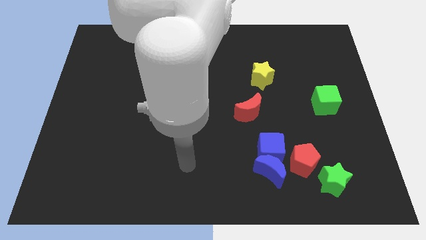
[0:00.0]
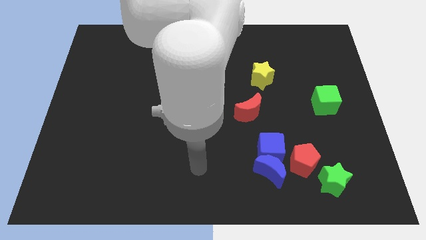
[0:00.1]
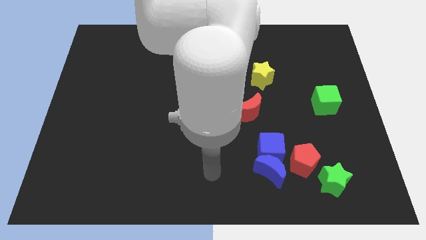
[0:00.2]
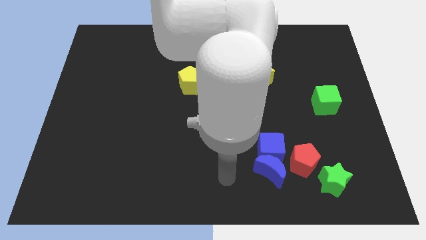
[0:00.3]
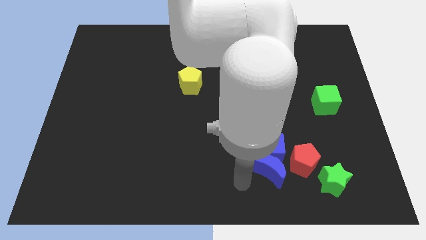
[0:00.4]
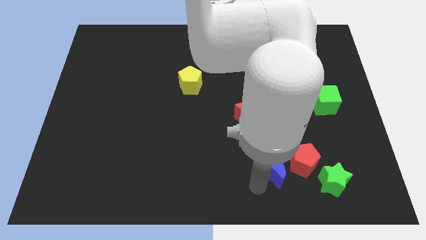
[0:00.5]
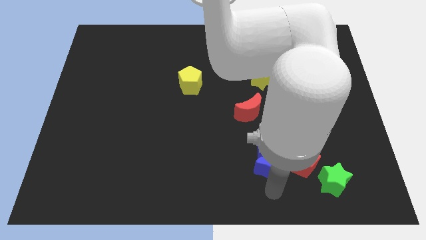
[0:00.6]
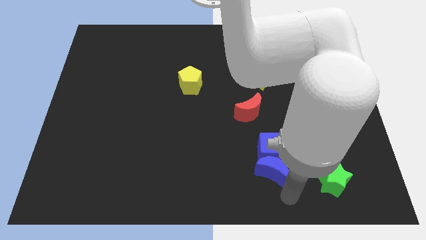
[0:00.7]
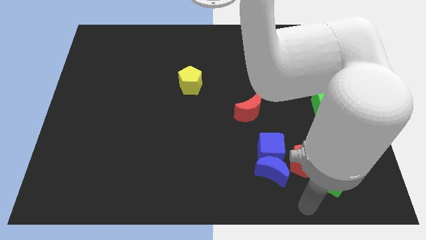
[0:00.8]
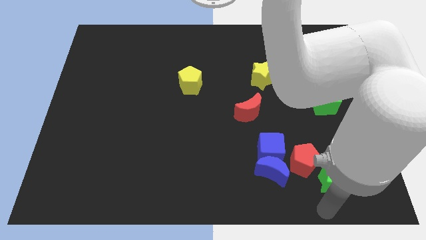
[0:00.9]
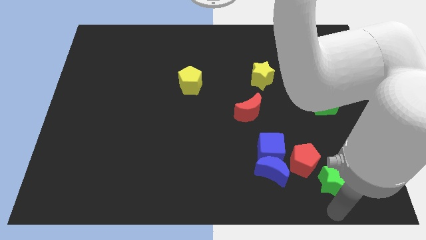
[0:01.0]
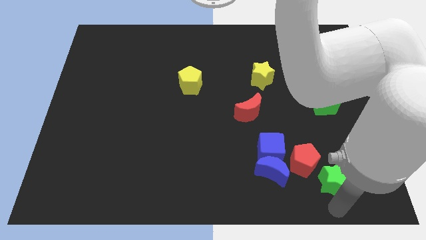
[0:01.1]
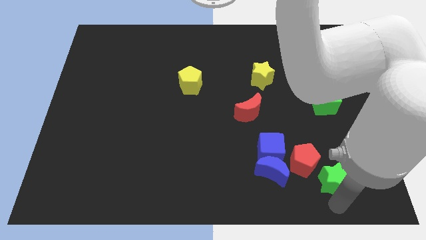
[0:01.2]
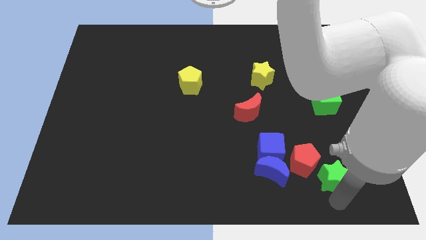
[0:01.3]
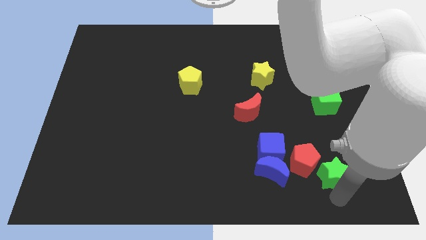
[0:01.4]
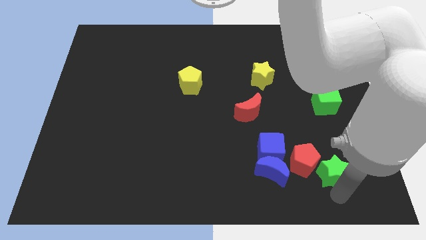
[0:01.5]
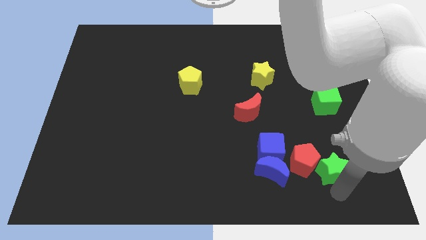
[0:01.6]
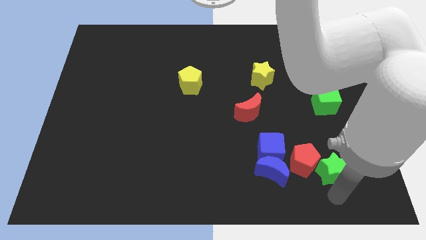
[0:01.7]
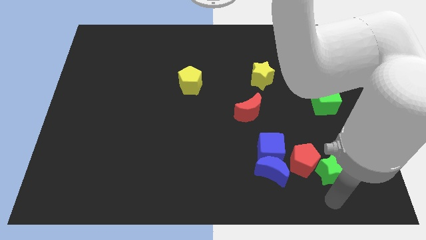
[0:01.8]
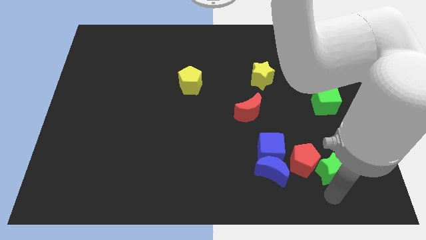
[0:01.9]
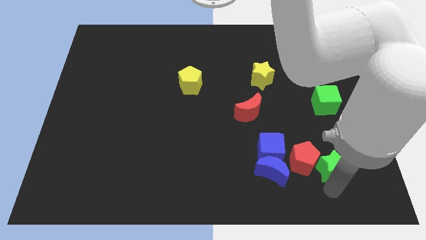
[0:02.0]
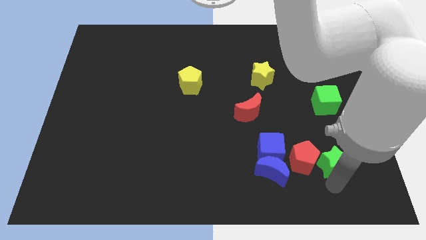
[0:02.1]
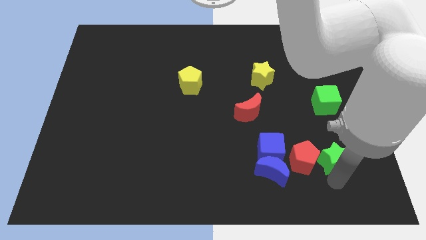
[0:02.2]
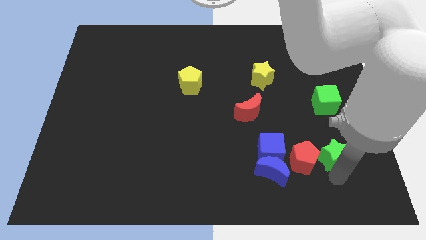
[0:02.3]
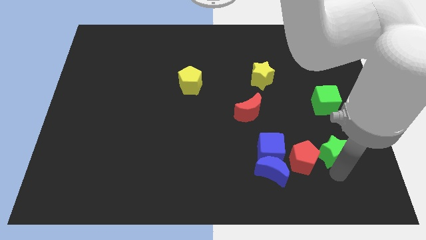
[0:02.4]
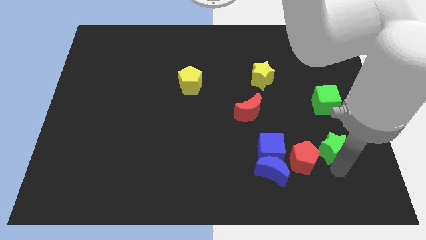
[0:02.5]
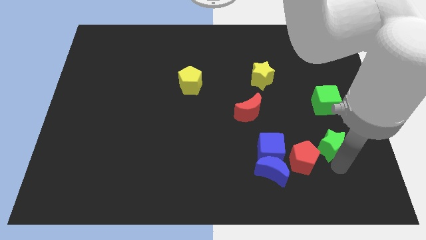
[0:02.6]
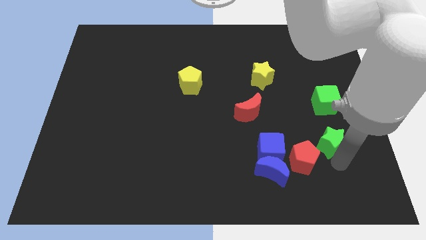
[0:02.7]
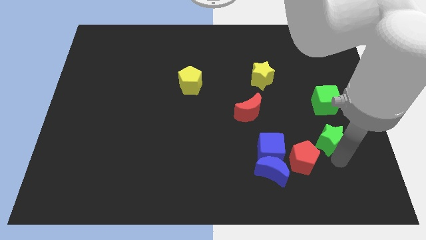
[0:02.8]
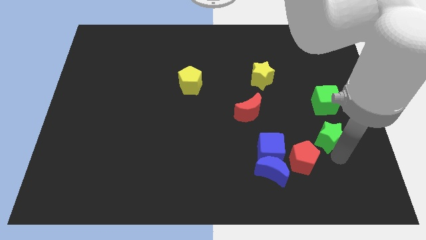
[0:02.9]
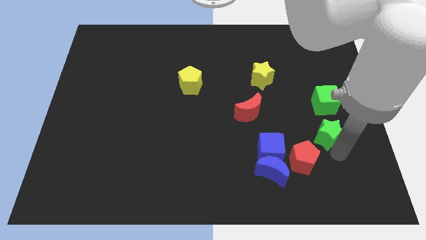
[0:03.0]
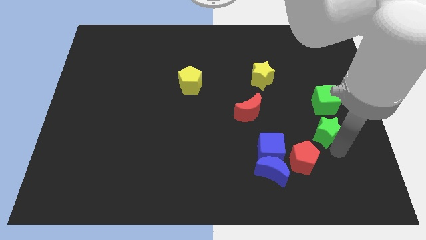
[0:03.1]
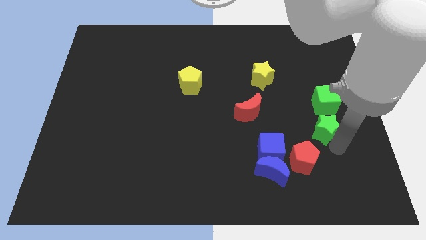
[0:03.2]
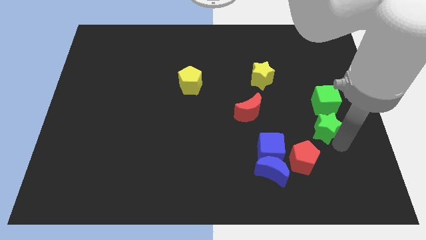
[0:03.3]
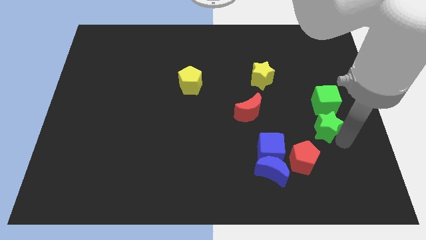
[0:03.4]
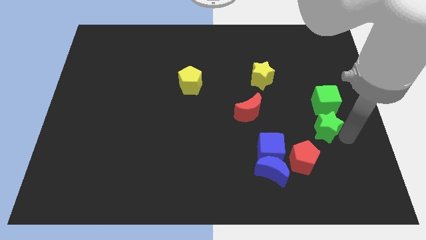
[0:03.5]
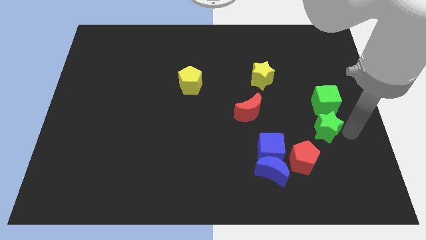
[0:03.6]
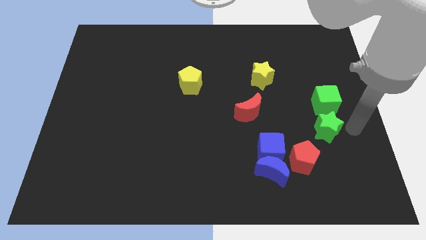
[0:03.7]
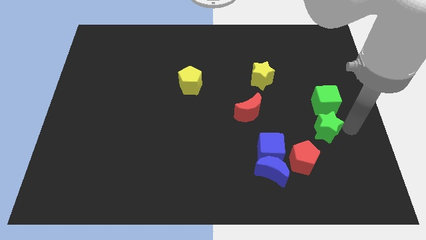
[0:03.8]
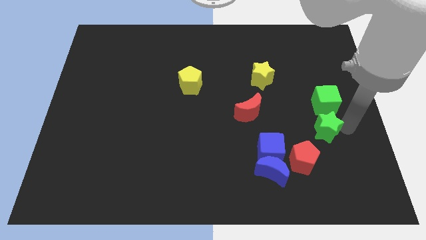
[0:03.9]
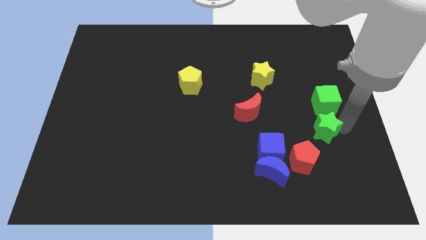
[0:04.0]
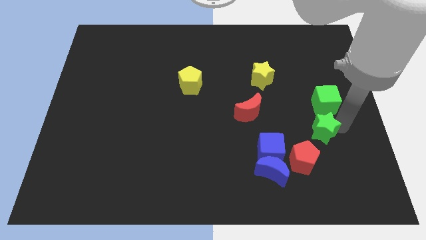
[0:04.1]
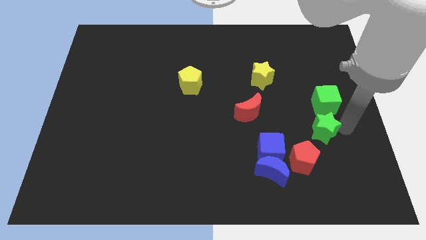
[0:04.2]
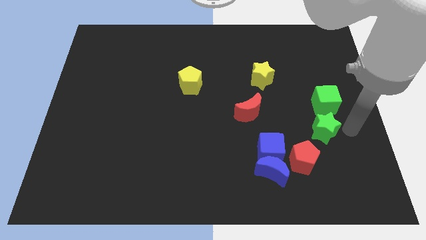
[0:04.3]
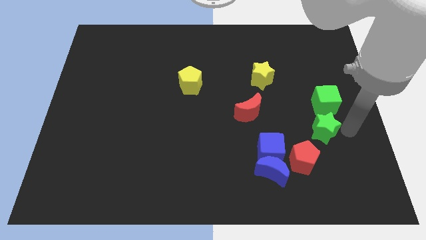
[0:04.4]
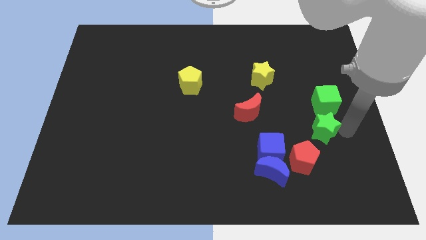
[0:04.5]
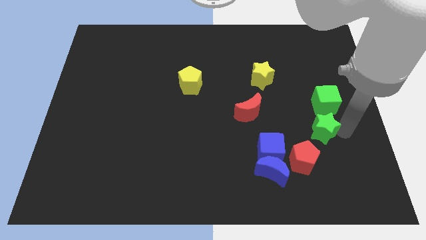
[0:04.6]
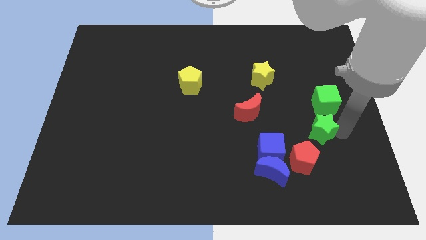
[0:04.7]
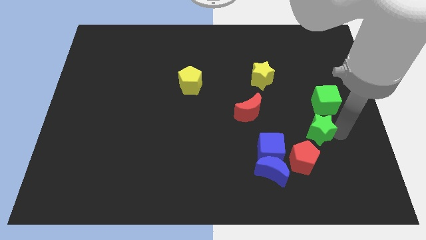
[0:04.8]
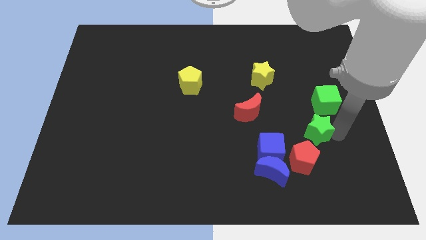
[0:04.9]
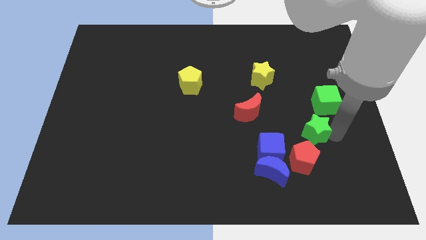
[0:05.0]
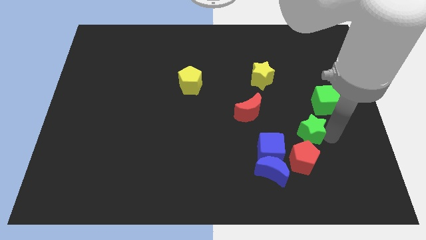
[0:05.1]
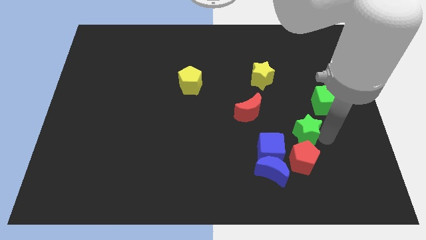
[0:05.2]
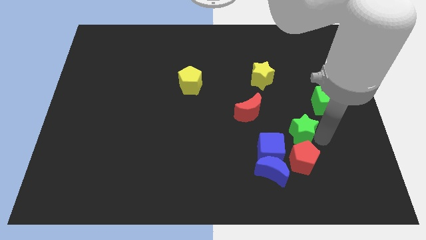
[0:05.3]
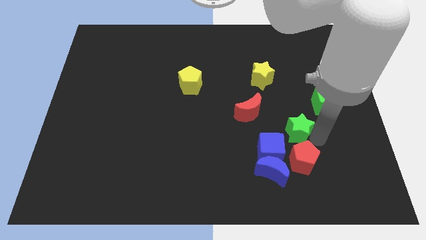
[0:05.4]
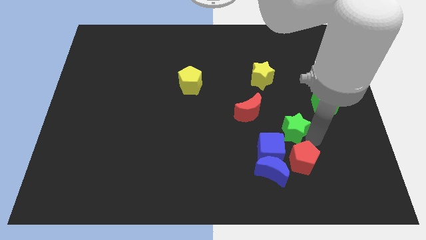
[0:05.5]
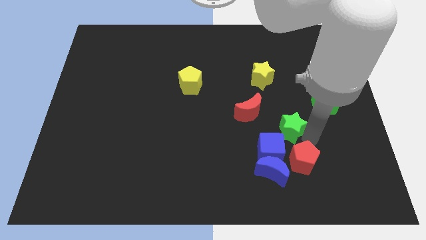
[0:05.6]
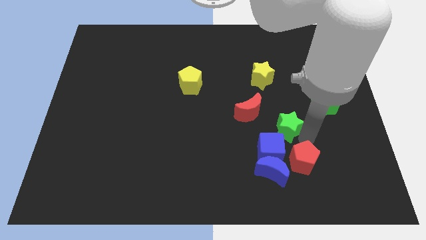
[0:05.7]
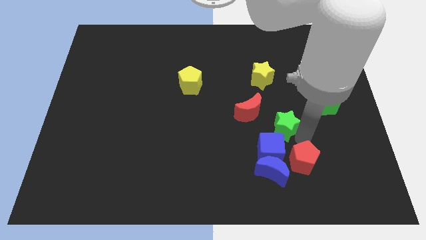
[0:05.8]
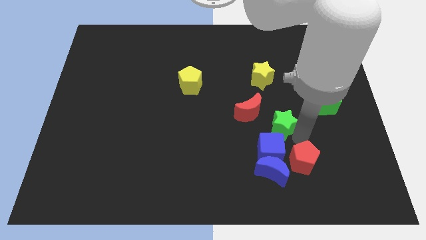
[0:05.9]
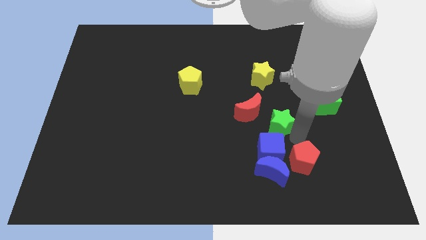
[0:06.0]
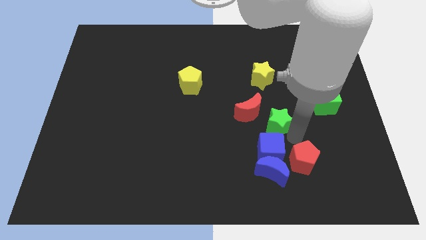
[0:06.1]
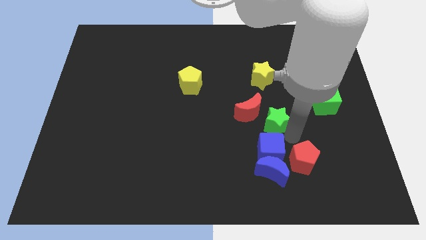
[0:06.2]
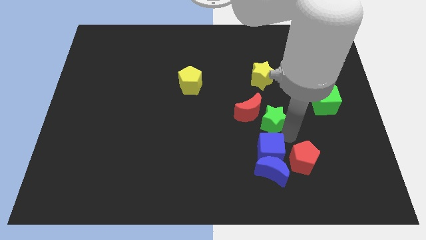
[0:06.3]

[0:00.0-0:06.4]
push the green star next to the red moon

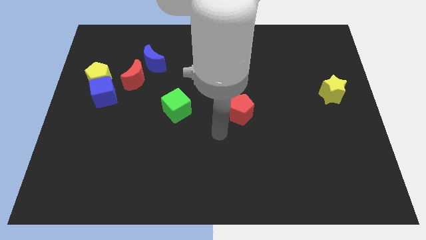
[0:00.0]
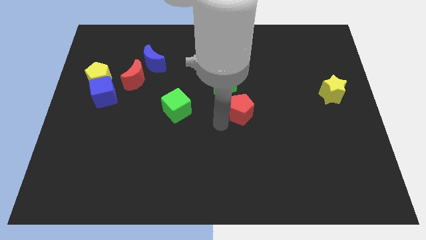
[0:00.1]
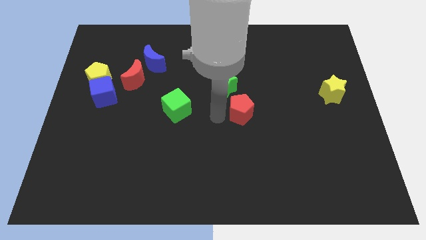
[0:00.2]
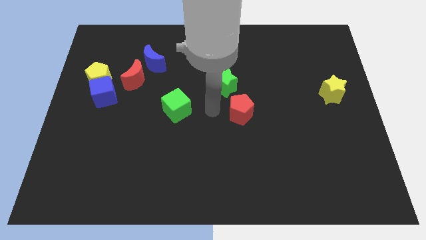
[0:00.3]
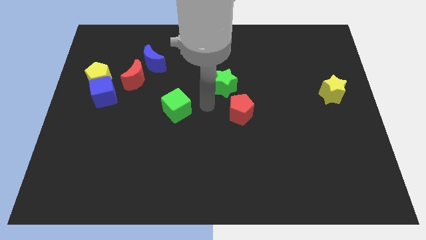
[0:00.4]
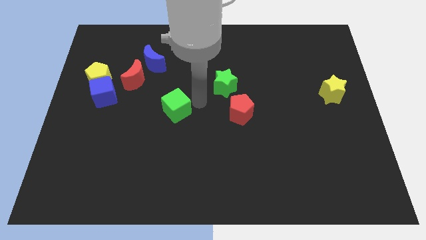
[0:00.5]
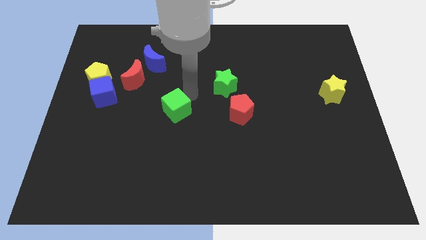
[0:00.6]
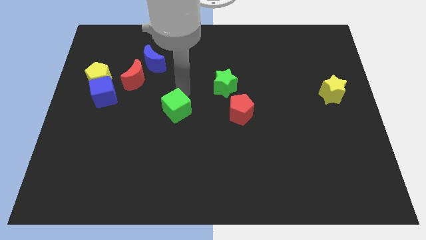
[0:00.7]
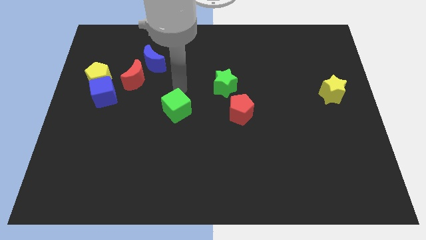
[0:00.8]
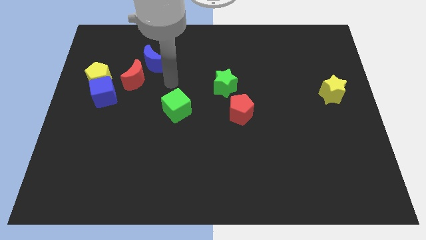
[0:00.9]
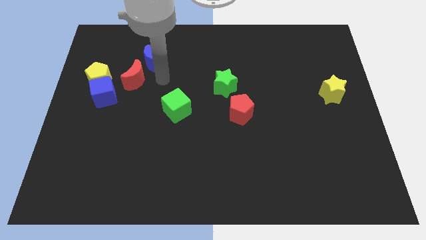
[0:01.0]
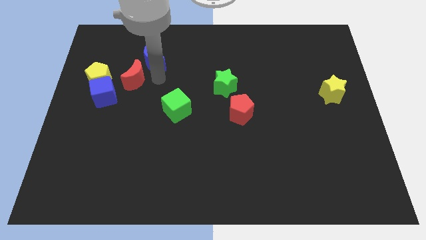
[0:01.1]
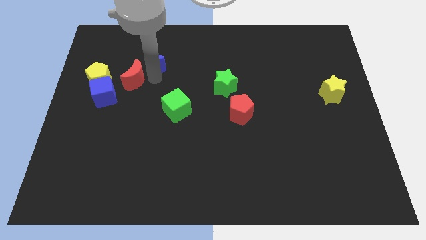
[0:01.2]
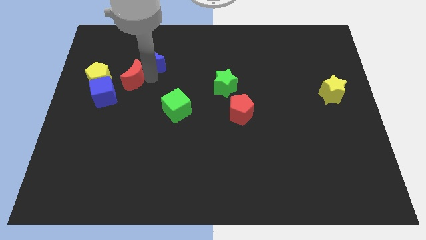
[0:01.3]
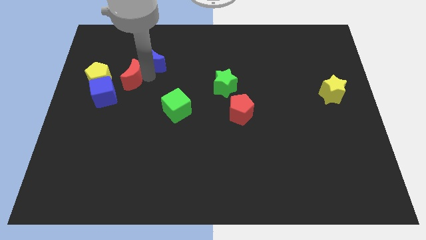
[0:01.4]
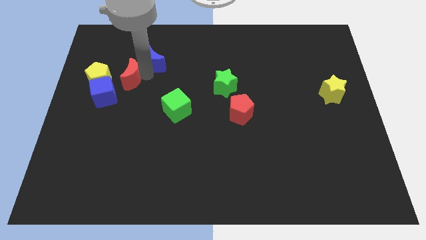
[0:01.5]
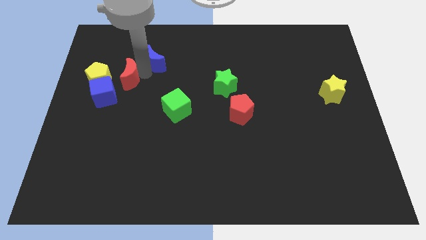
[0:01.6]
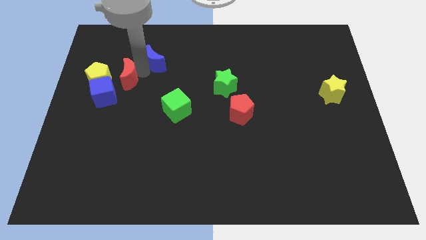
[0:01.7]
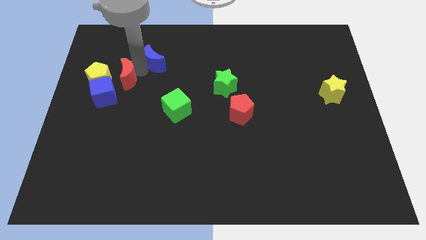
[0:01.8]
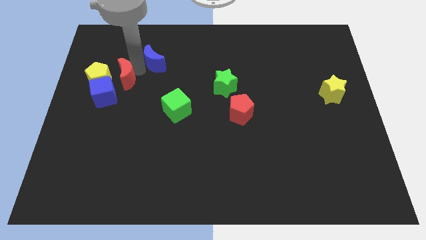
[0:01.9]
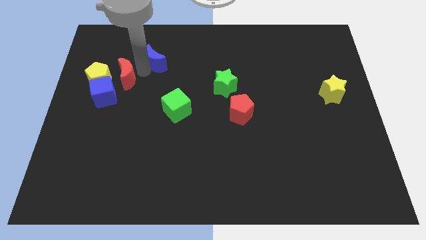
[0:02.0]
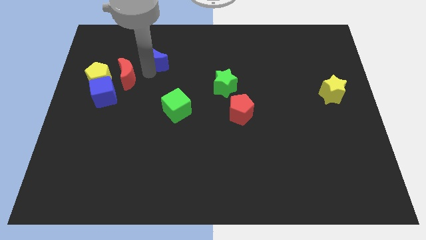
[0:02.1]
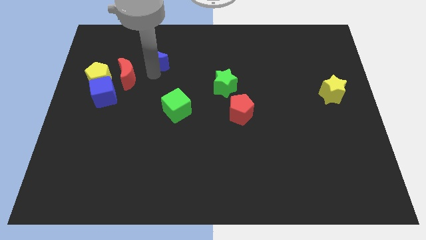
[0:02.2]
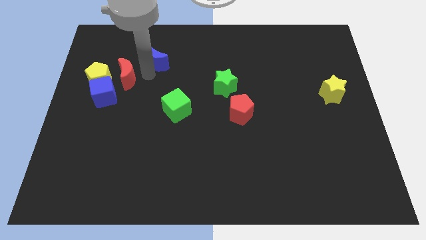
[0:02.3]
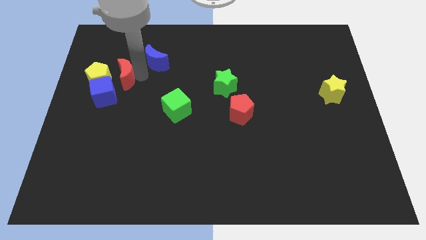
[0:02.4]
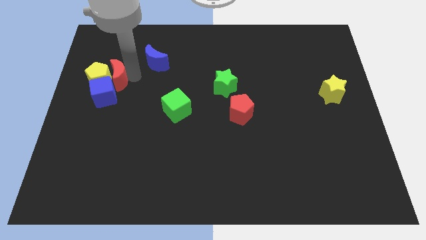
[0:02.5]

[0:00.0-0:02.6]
slide the red moon next to the yellow pentagon
